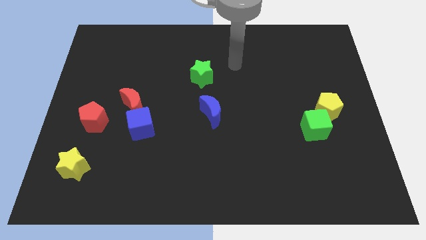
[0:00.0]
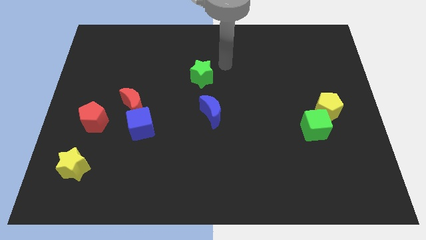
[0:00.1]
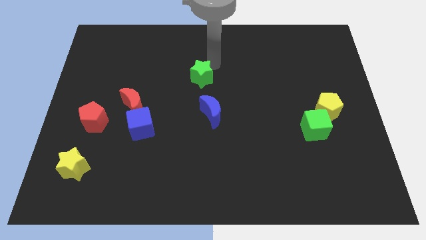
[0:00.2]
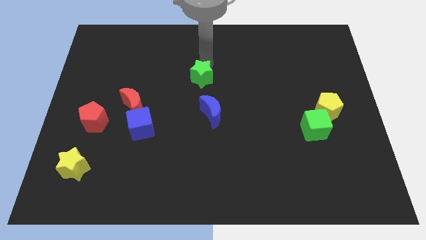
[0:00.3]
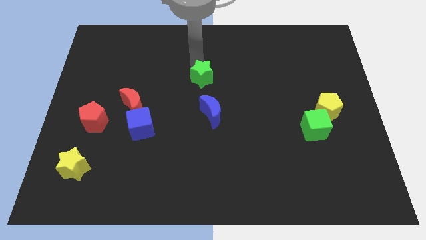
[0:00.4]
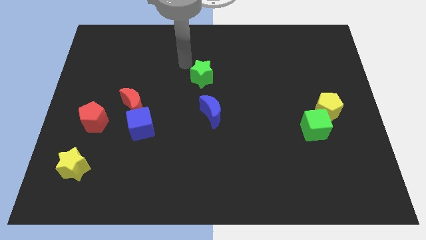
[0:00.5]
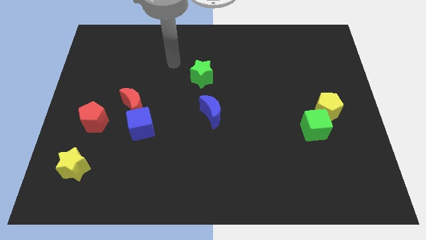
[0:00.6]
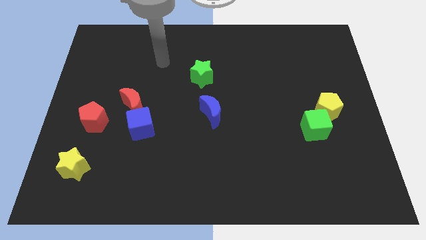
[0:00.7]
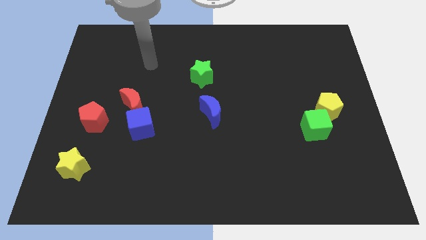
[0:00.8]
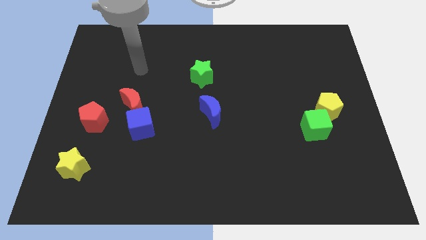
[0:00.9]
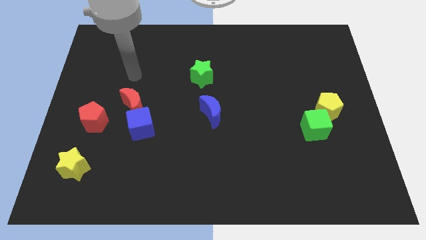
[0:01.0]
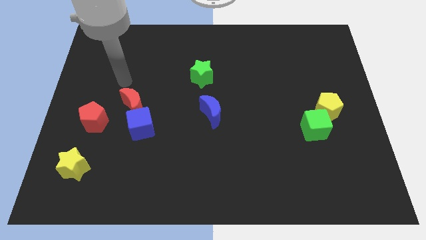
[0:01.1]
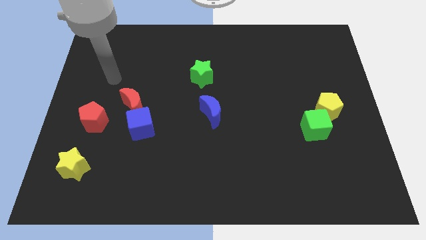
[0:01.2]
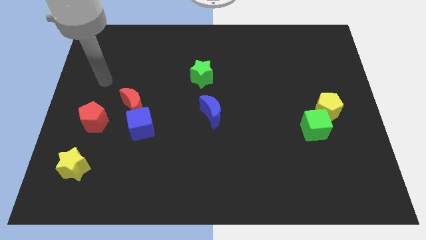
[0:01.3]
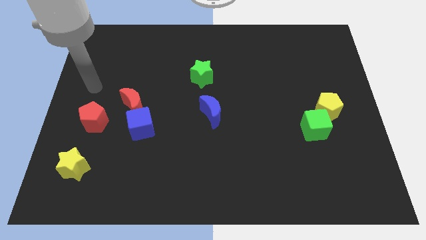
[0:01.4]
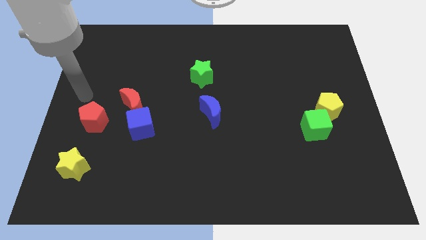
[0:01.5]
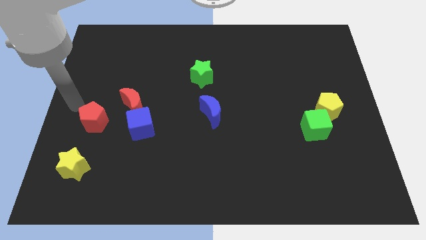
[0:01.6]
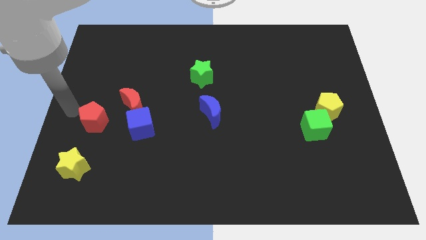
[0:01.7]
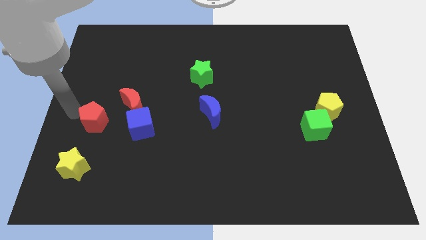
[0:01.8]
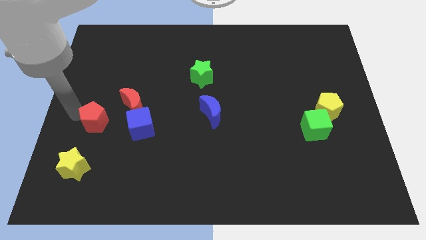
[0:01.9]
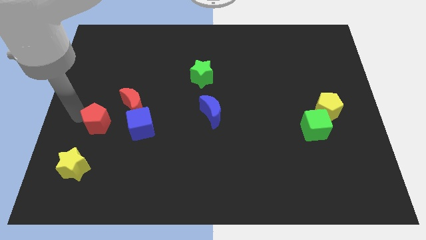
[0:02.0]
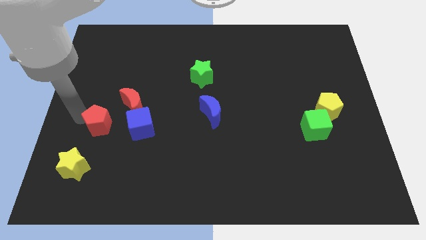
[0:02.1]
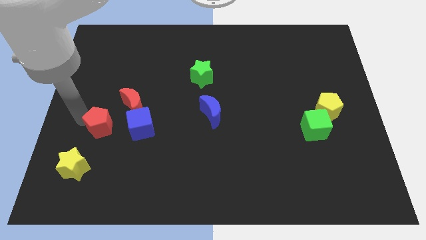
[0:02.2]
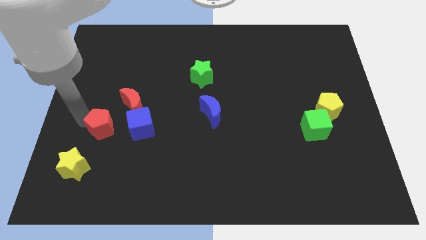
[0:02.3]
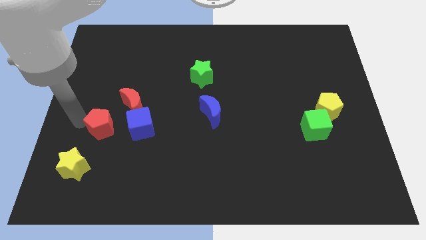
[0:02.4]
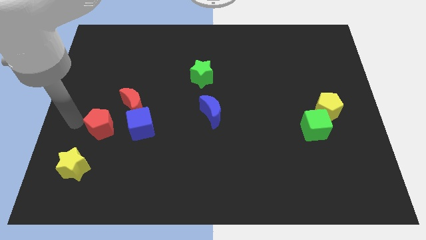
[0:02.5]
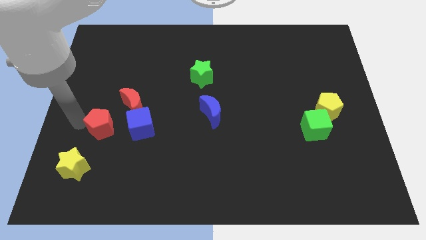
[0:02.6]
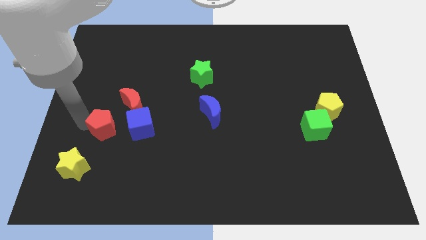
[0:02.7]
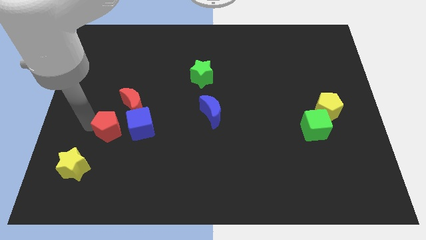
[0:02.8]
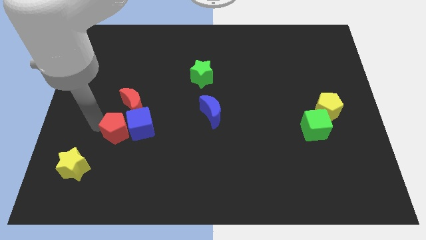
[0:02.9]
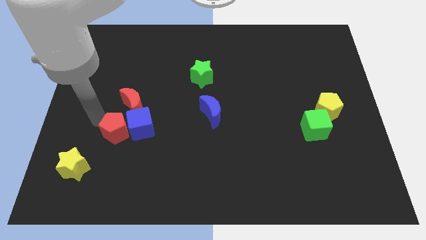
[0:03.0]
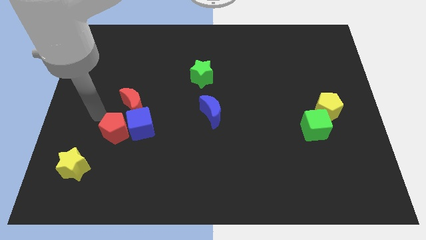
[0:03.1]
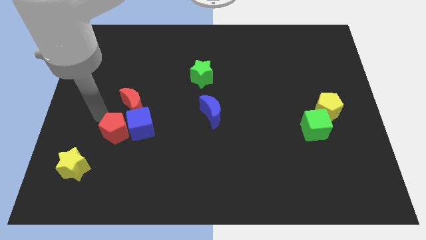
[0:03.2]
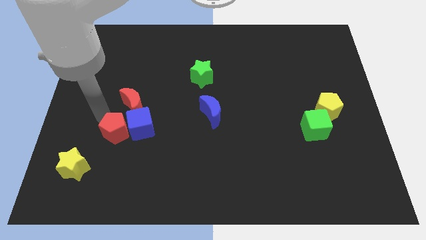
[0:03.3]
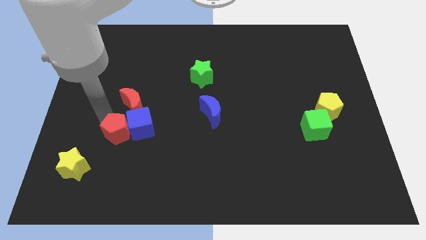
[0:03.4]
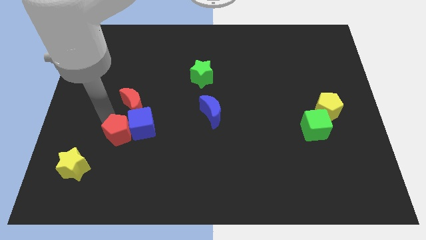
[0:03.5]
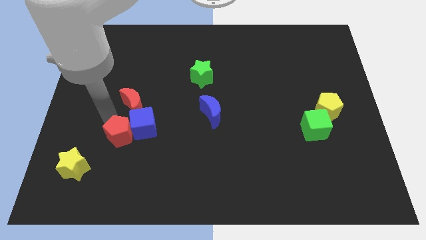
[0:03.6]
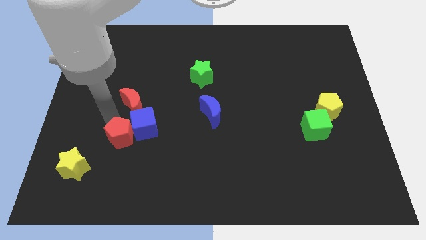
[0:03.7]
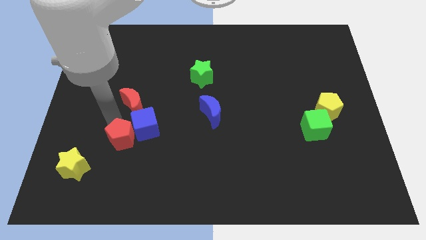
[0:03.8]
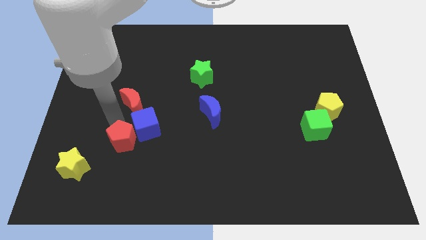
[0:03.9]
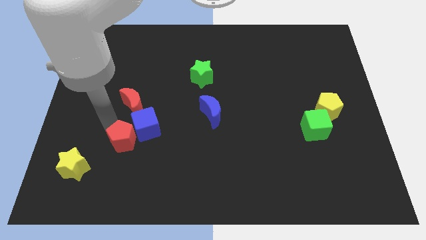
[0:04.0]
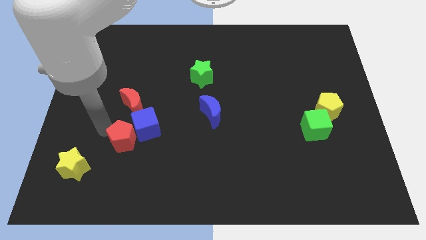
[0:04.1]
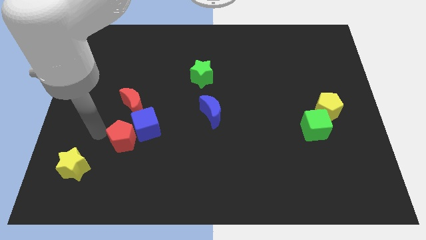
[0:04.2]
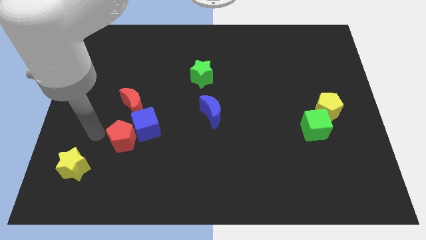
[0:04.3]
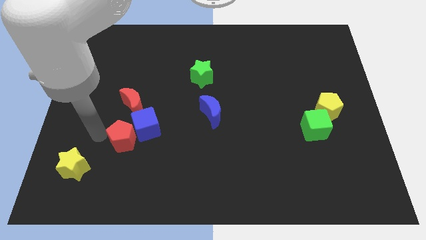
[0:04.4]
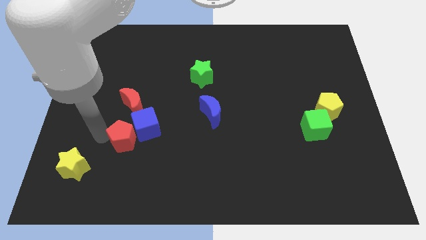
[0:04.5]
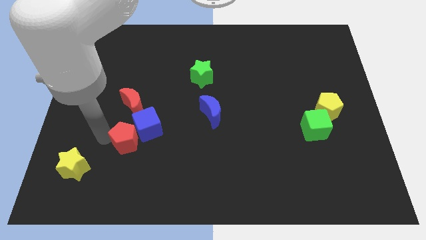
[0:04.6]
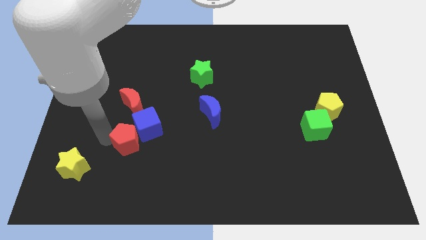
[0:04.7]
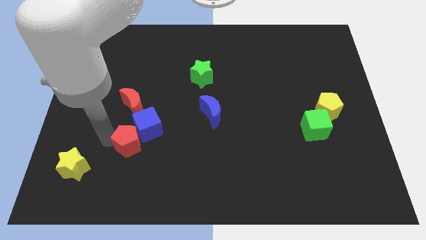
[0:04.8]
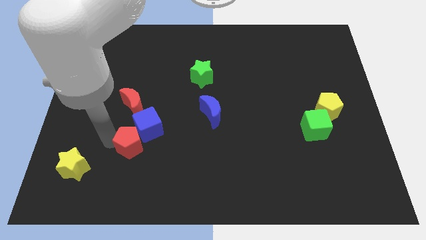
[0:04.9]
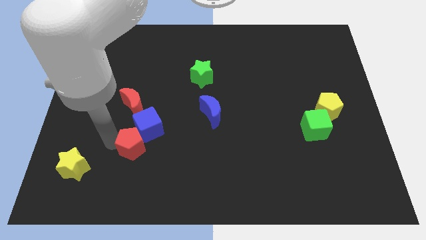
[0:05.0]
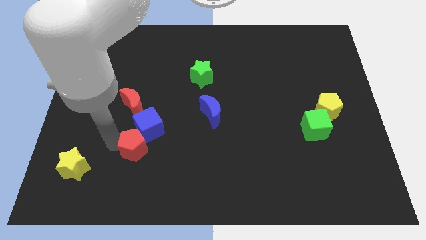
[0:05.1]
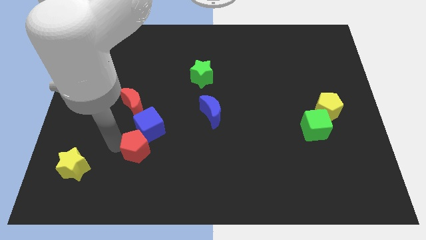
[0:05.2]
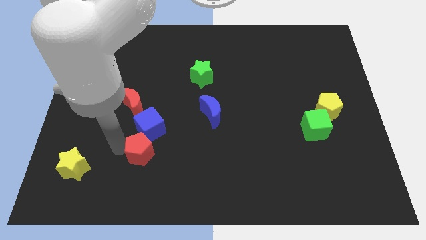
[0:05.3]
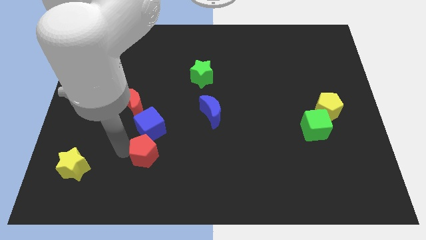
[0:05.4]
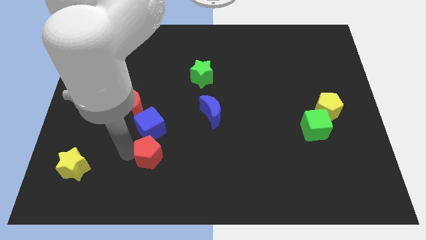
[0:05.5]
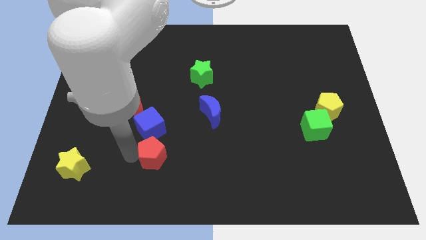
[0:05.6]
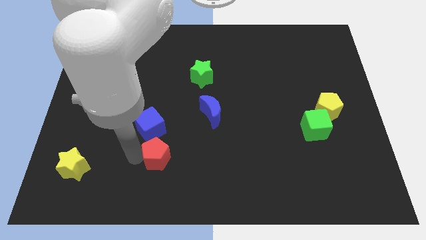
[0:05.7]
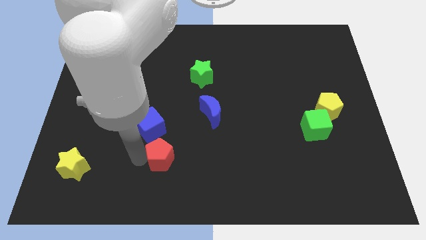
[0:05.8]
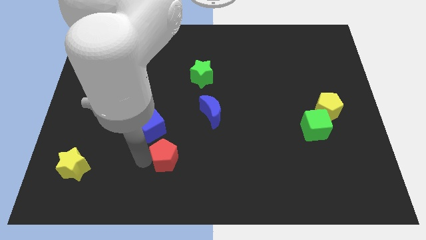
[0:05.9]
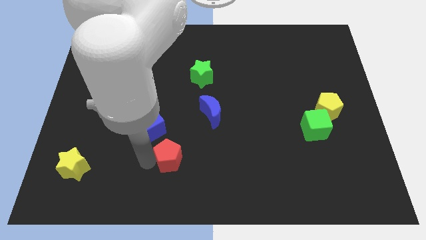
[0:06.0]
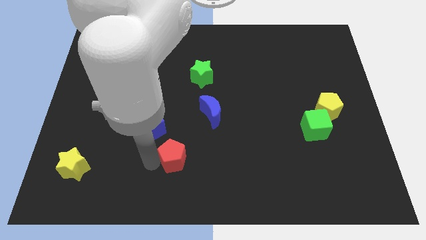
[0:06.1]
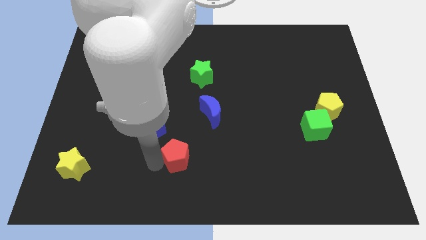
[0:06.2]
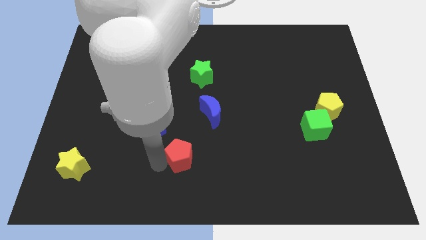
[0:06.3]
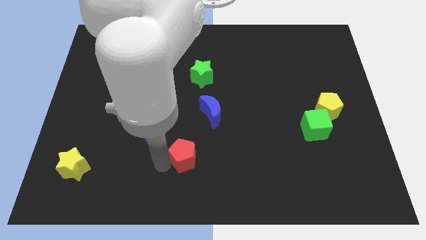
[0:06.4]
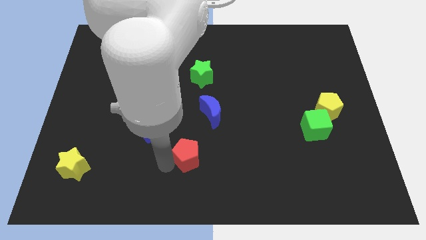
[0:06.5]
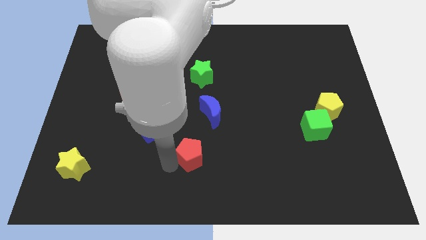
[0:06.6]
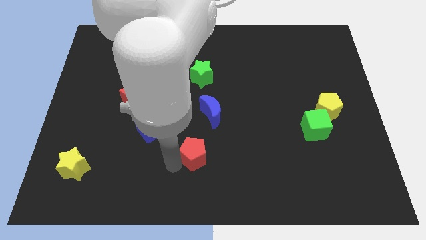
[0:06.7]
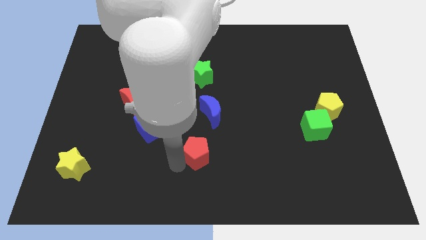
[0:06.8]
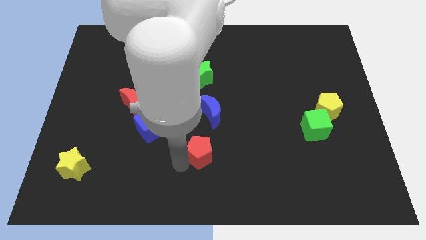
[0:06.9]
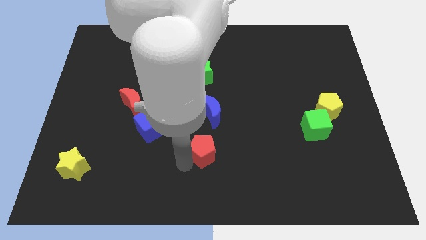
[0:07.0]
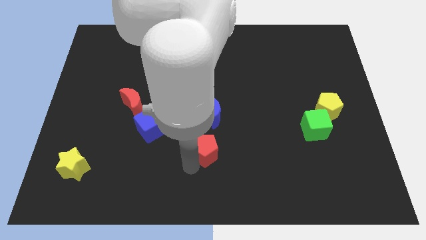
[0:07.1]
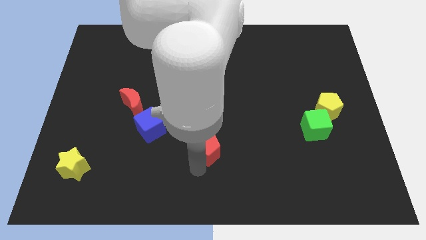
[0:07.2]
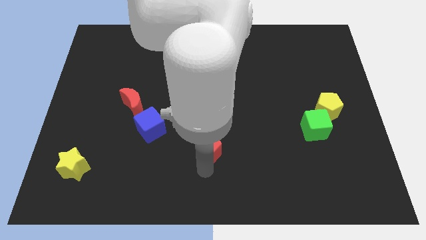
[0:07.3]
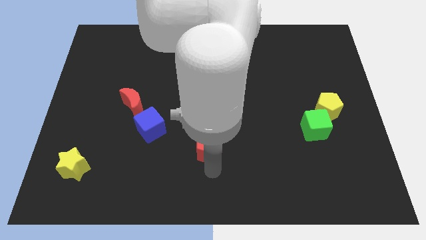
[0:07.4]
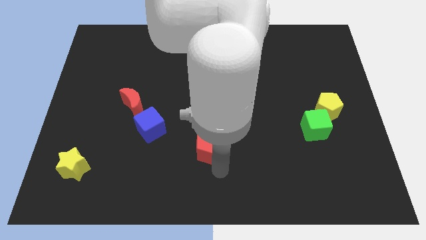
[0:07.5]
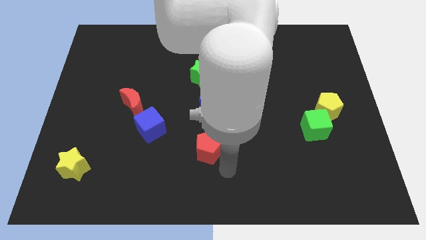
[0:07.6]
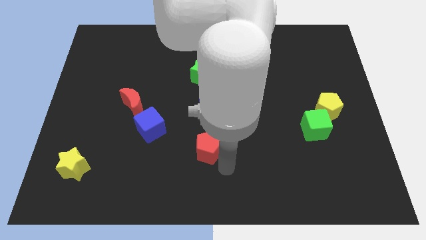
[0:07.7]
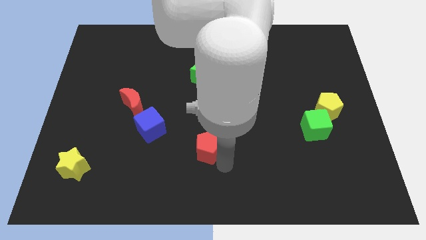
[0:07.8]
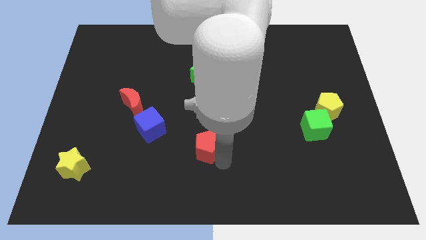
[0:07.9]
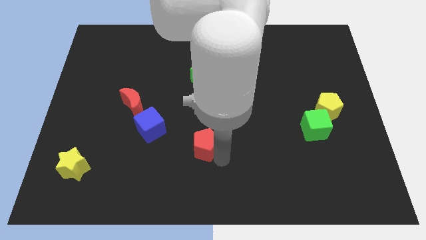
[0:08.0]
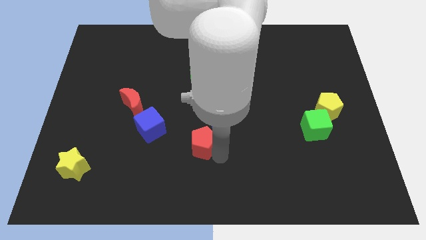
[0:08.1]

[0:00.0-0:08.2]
move the red pentagon to the bottom left of the blue moon

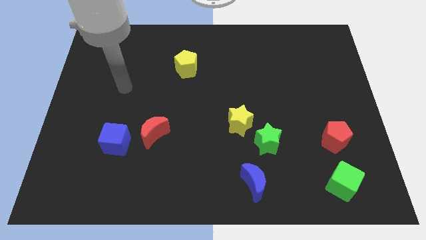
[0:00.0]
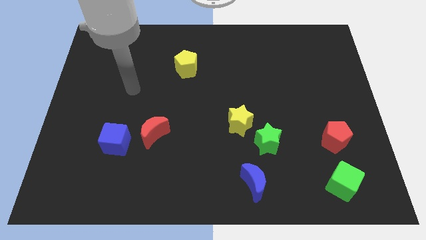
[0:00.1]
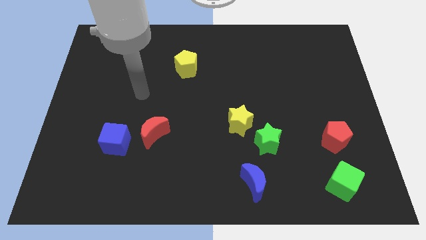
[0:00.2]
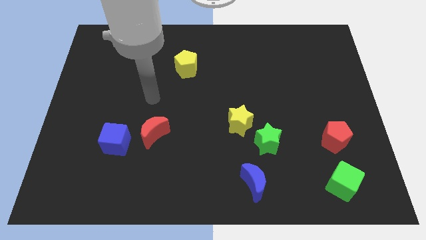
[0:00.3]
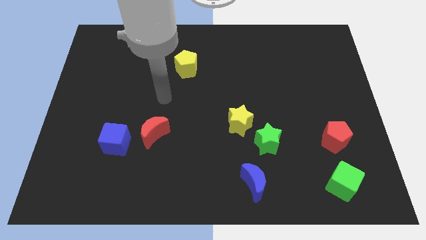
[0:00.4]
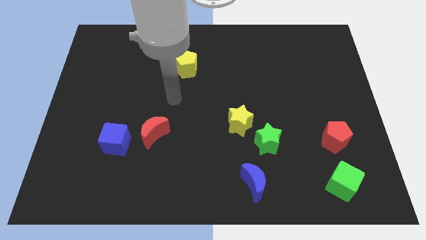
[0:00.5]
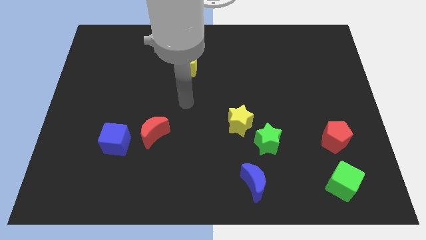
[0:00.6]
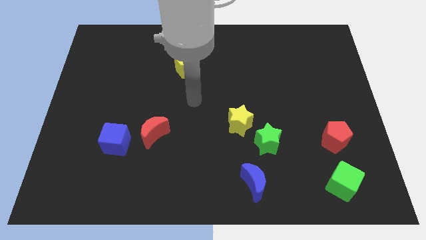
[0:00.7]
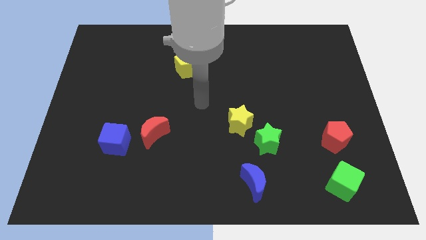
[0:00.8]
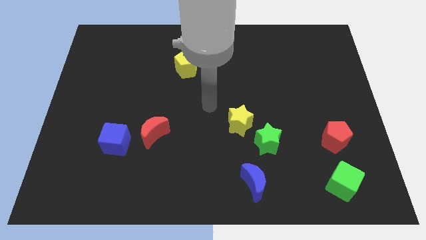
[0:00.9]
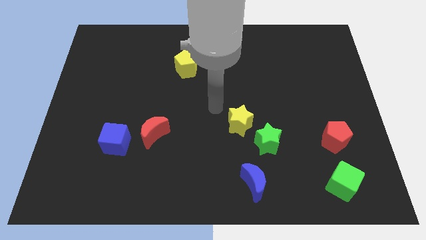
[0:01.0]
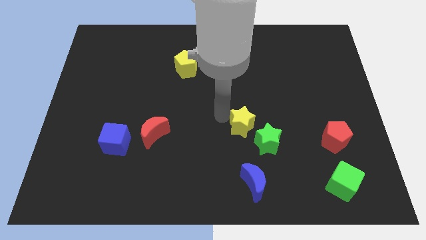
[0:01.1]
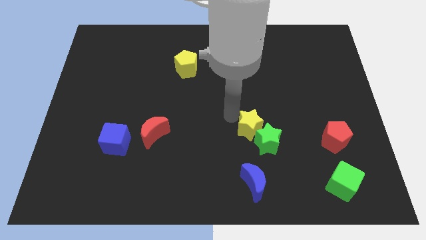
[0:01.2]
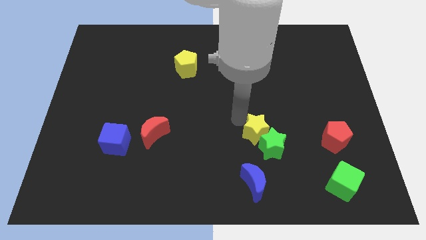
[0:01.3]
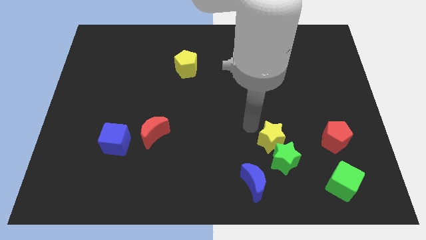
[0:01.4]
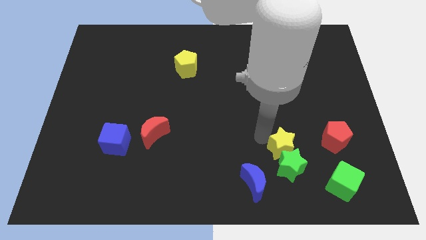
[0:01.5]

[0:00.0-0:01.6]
push the green star right of the blue moon
